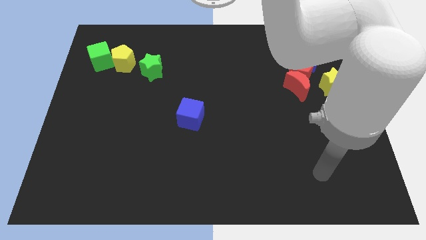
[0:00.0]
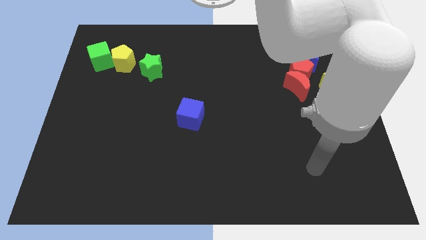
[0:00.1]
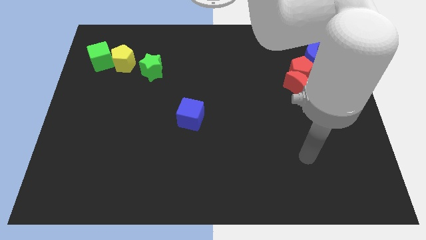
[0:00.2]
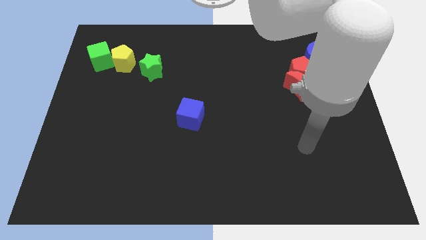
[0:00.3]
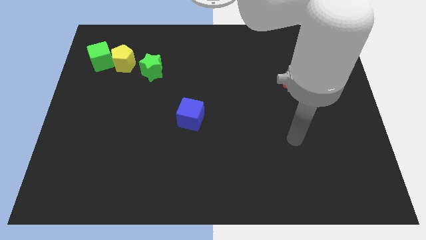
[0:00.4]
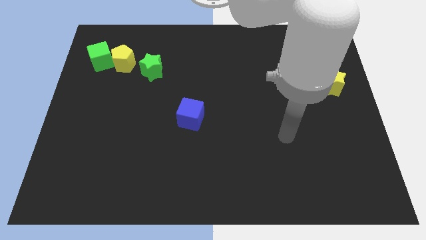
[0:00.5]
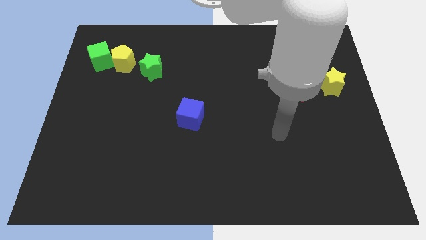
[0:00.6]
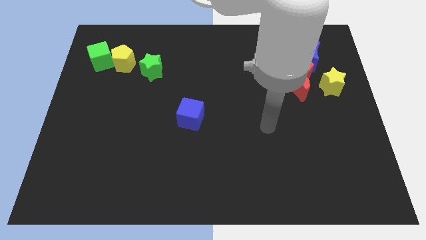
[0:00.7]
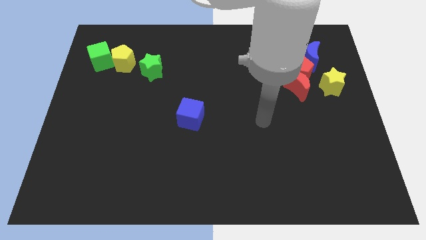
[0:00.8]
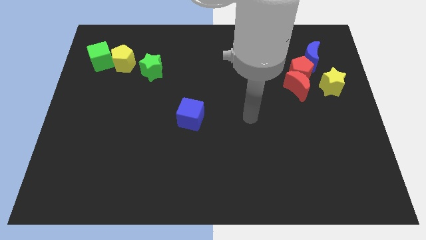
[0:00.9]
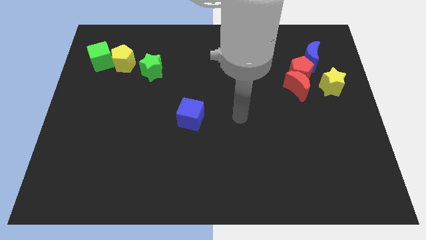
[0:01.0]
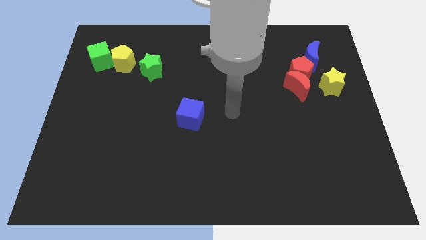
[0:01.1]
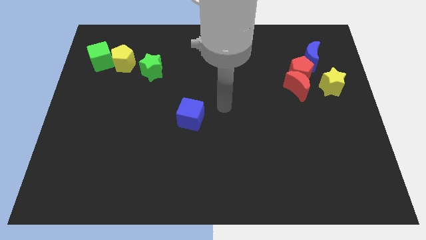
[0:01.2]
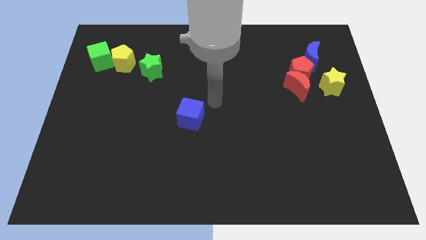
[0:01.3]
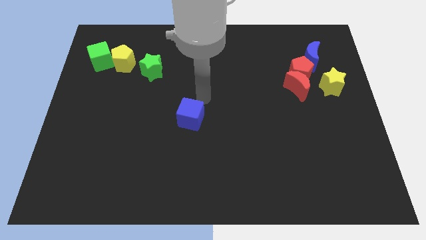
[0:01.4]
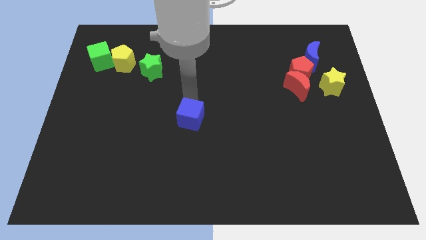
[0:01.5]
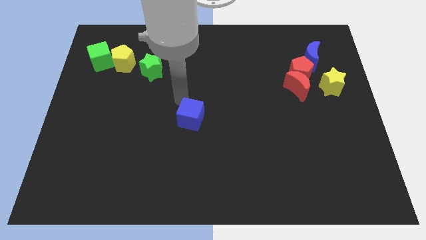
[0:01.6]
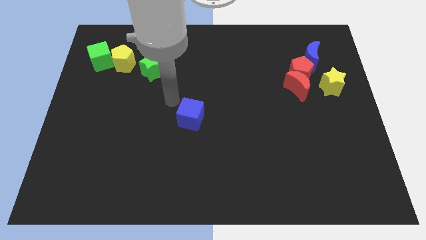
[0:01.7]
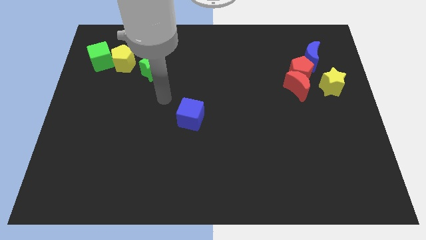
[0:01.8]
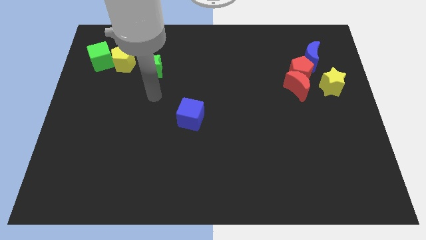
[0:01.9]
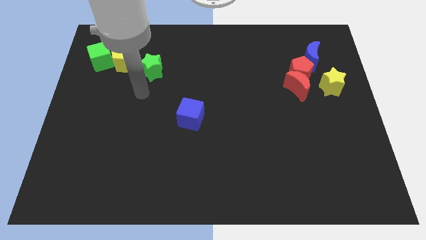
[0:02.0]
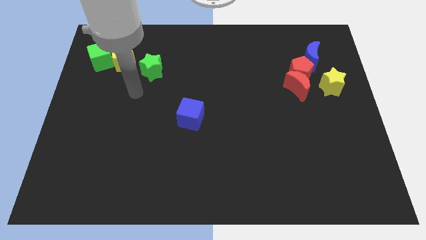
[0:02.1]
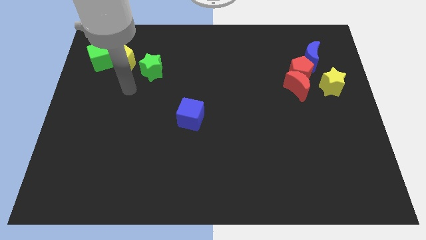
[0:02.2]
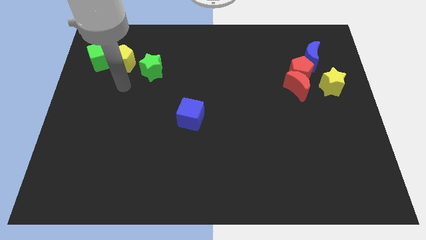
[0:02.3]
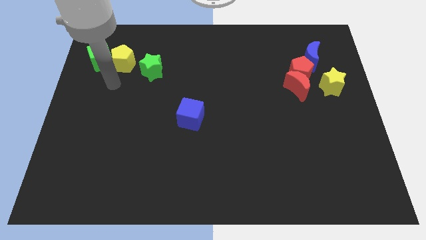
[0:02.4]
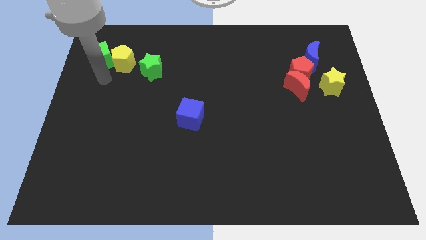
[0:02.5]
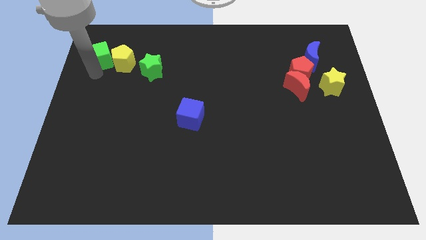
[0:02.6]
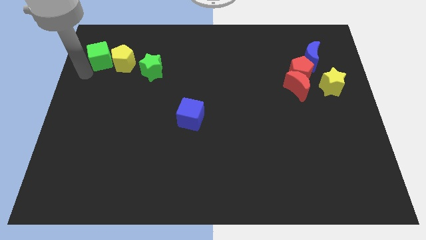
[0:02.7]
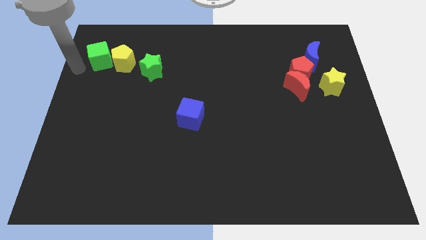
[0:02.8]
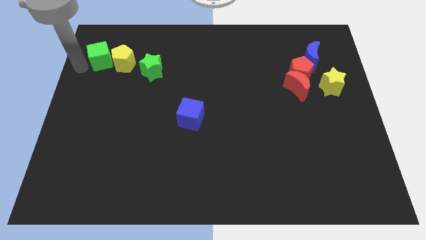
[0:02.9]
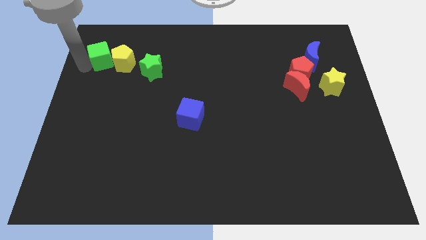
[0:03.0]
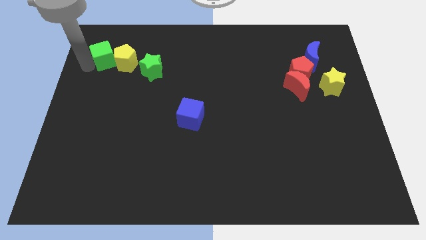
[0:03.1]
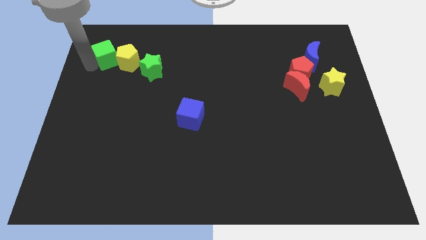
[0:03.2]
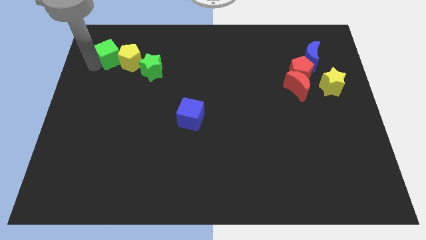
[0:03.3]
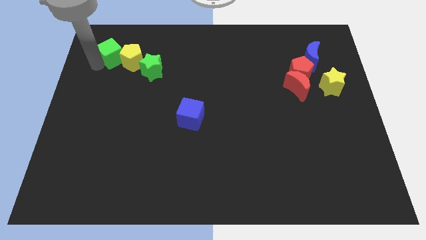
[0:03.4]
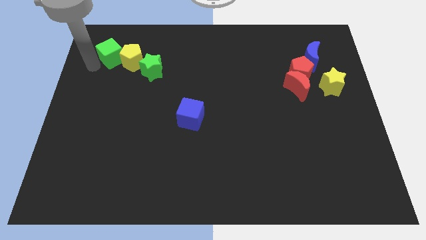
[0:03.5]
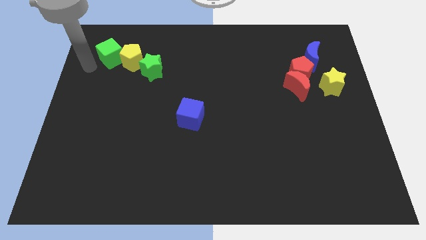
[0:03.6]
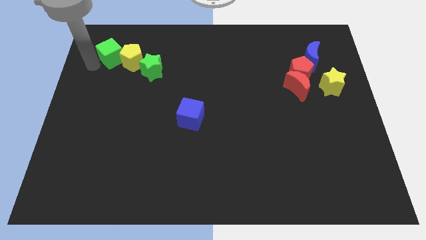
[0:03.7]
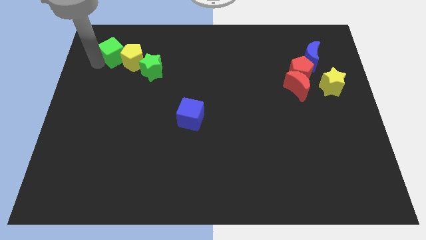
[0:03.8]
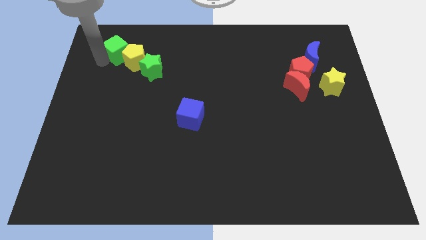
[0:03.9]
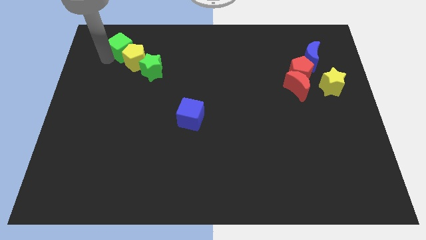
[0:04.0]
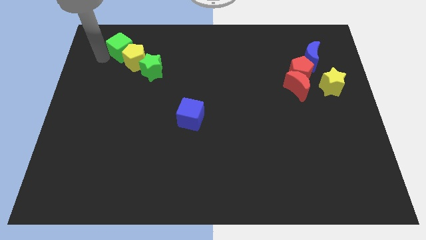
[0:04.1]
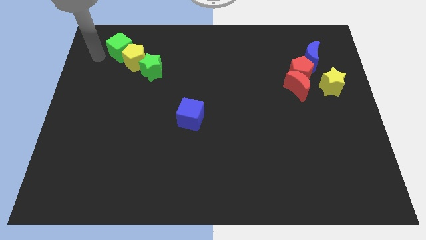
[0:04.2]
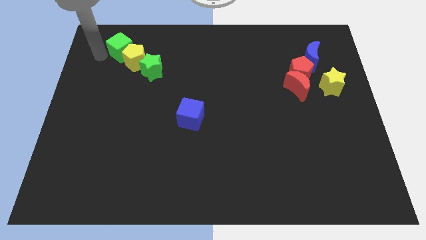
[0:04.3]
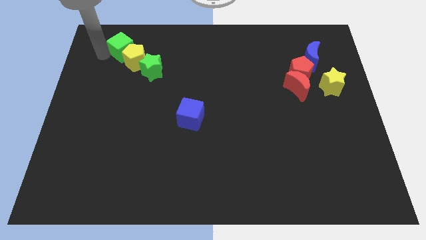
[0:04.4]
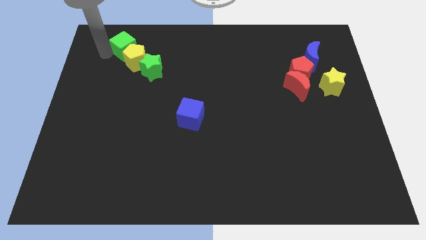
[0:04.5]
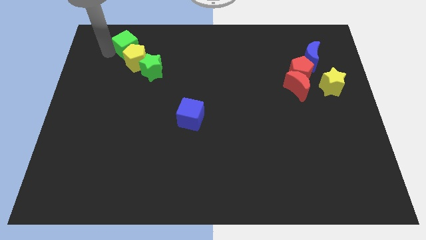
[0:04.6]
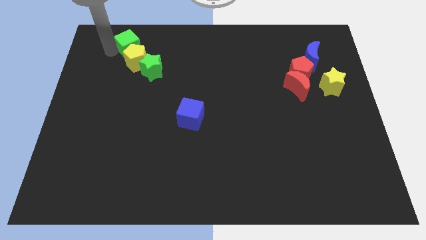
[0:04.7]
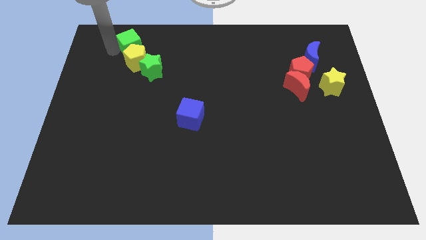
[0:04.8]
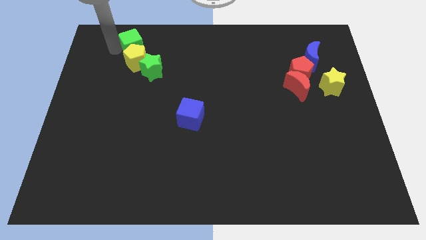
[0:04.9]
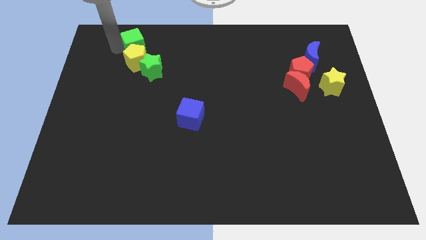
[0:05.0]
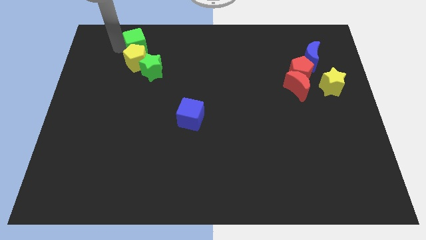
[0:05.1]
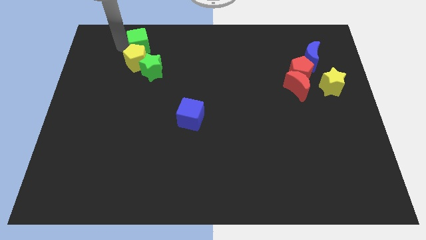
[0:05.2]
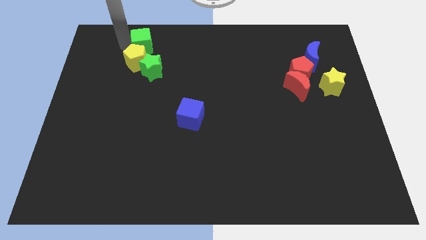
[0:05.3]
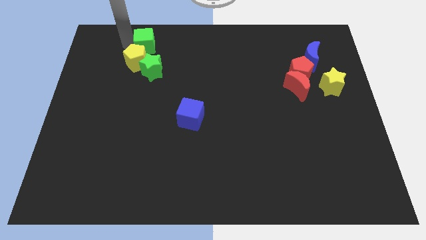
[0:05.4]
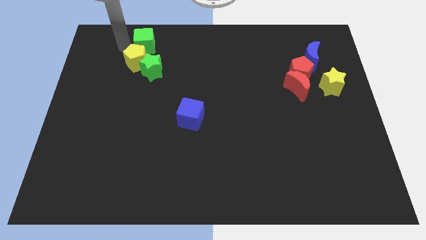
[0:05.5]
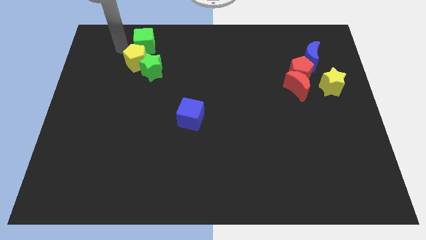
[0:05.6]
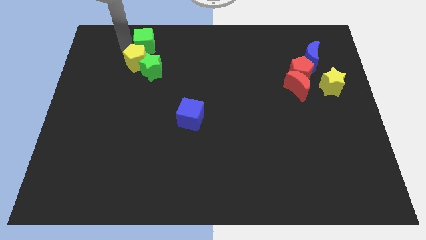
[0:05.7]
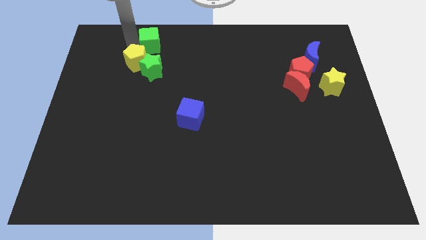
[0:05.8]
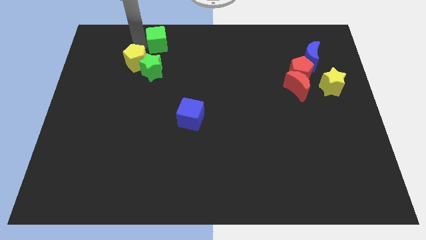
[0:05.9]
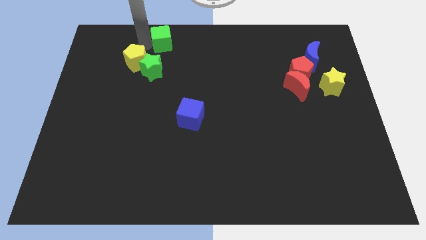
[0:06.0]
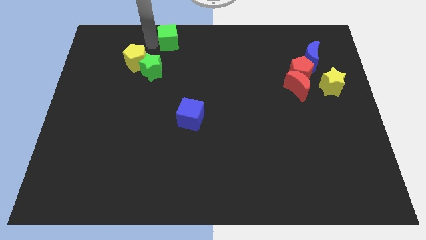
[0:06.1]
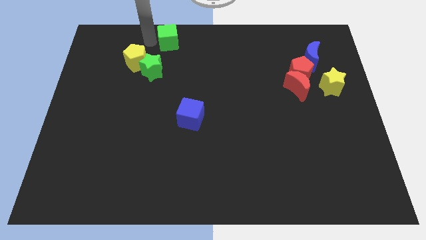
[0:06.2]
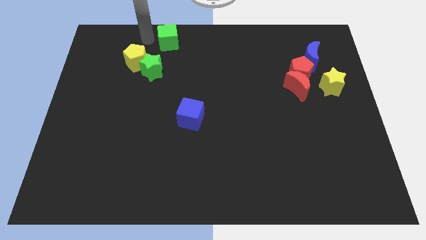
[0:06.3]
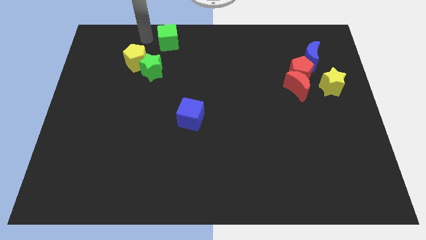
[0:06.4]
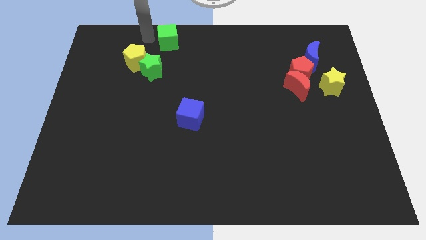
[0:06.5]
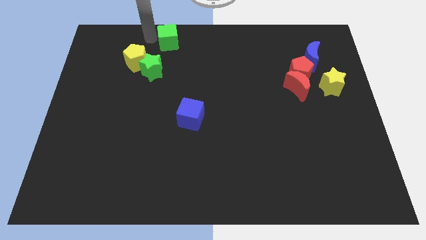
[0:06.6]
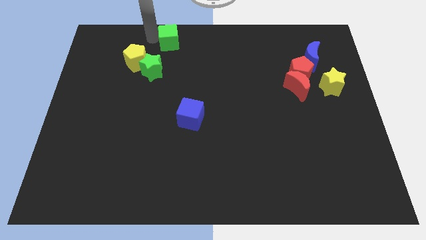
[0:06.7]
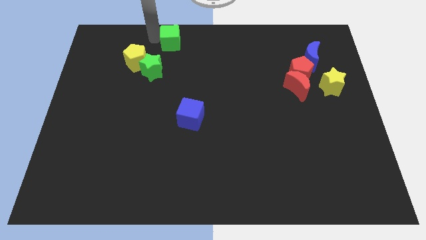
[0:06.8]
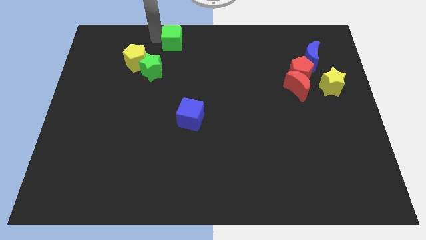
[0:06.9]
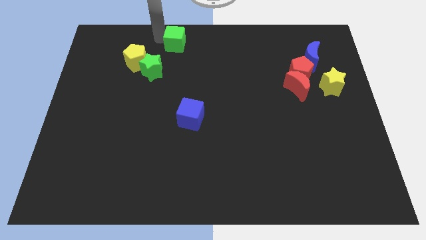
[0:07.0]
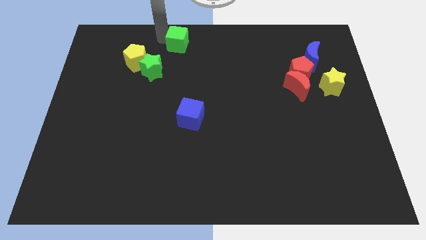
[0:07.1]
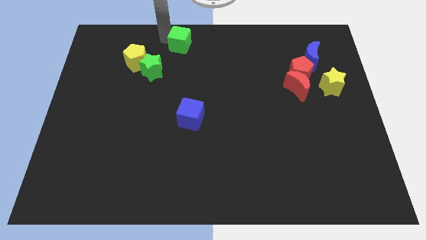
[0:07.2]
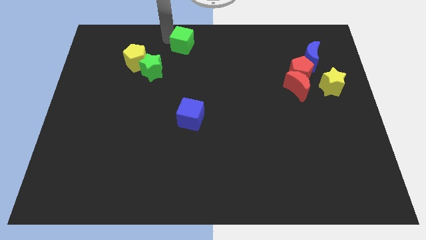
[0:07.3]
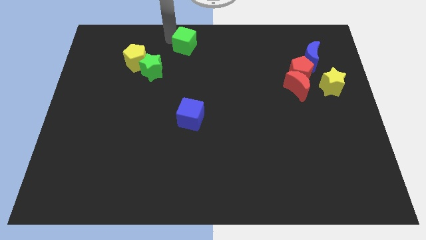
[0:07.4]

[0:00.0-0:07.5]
move the green cube to the right

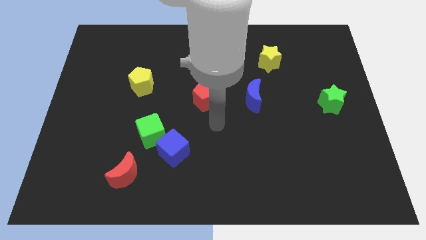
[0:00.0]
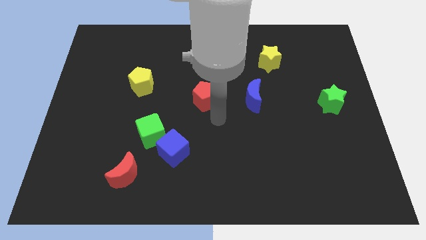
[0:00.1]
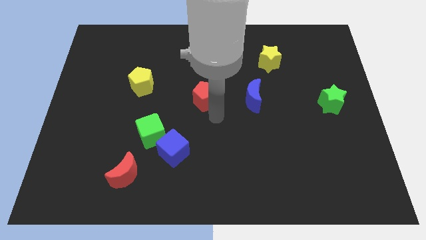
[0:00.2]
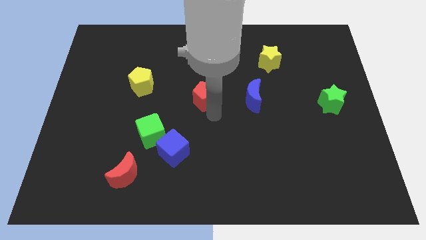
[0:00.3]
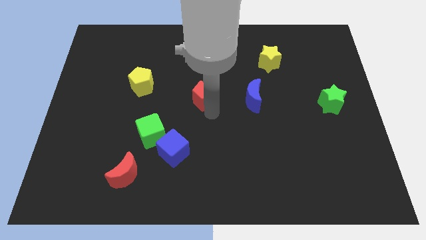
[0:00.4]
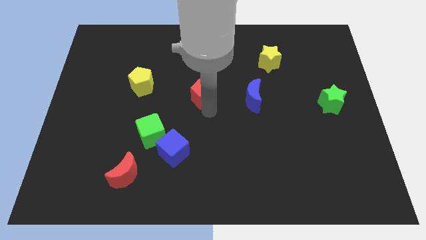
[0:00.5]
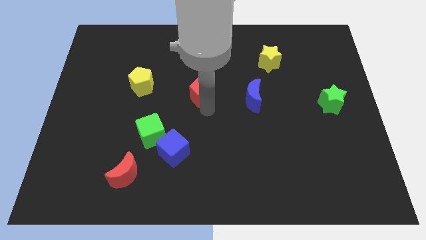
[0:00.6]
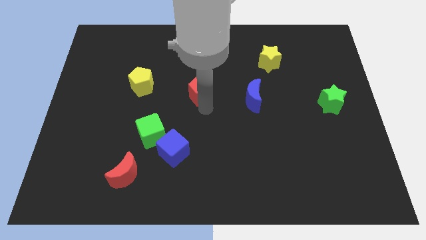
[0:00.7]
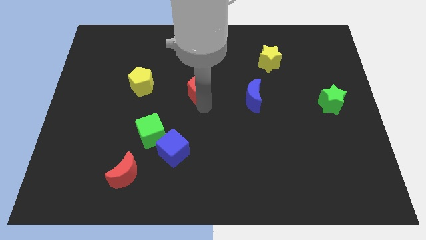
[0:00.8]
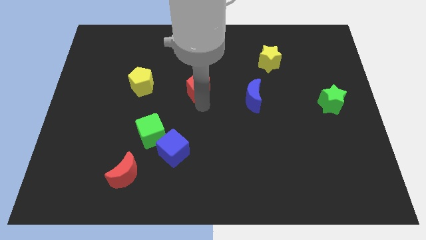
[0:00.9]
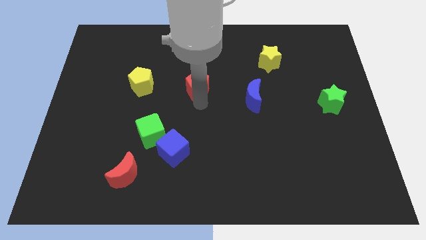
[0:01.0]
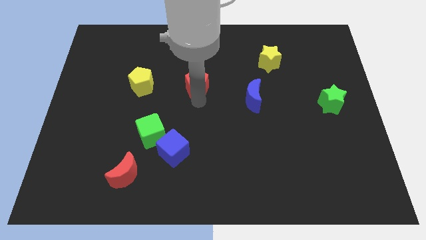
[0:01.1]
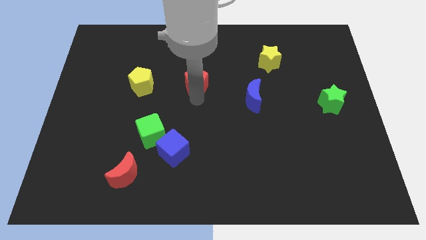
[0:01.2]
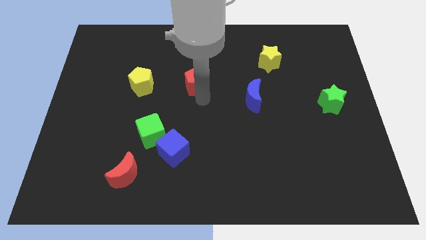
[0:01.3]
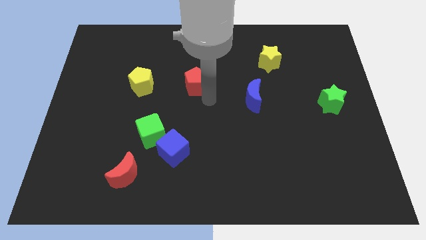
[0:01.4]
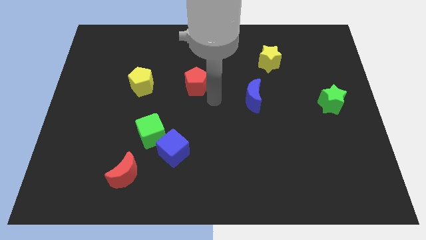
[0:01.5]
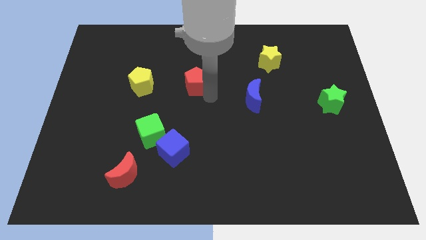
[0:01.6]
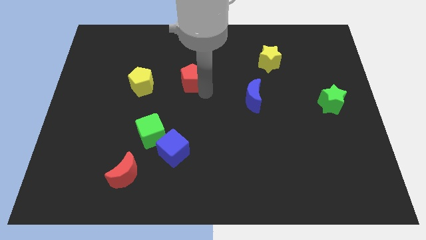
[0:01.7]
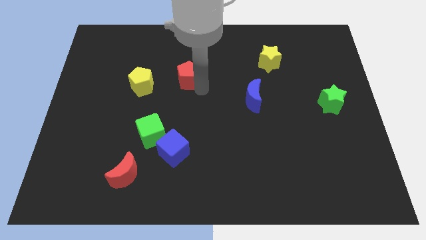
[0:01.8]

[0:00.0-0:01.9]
slide the red pentagon up and left diagonally a little bit
